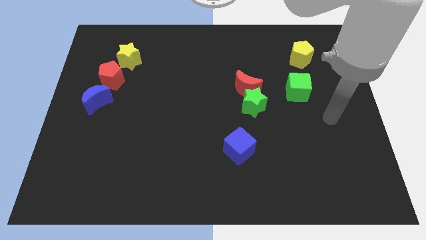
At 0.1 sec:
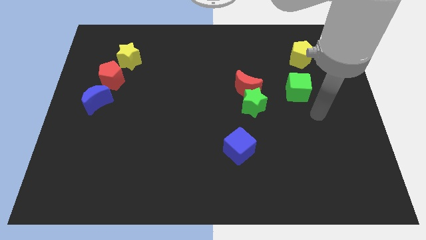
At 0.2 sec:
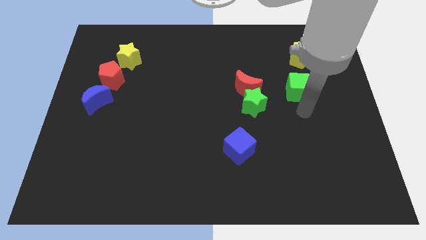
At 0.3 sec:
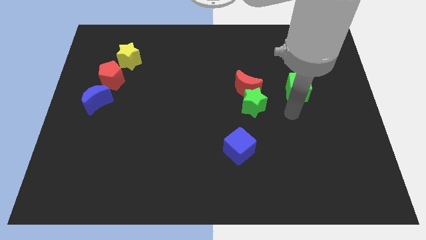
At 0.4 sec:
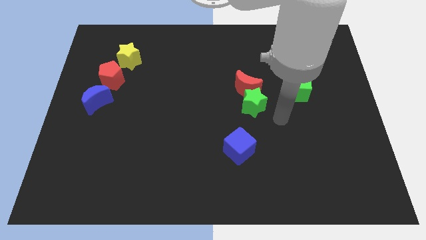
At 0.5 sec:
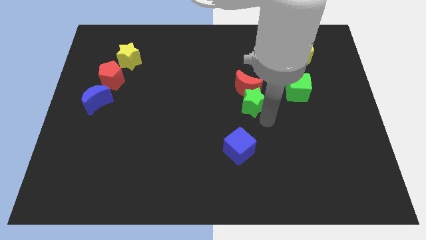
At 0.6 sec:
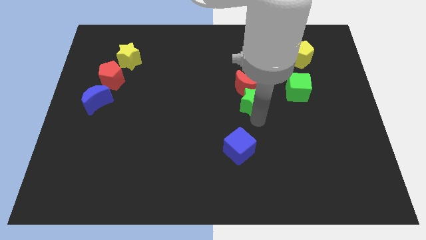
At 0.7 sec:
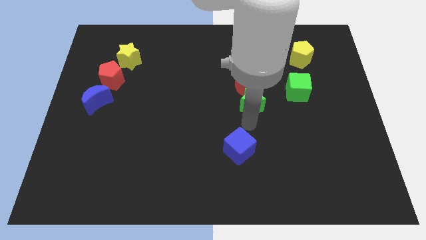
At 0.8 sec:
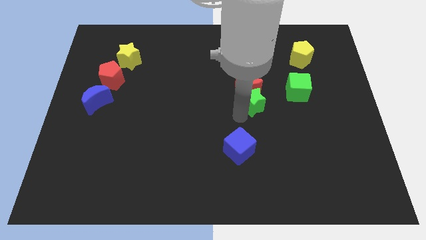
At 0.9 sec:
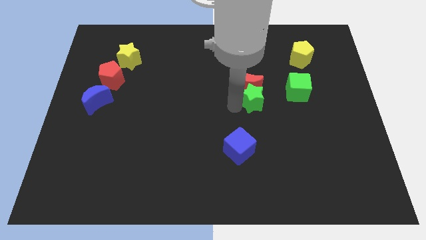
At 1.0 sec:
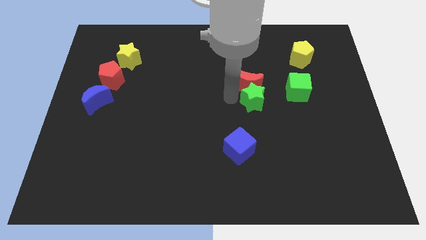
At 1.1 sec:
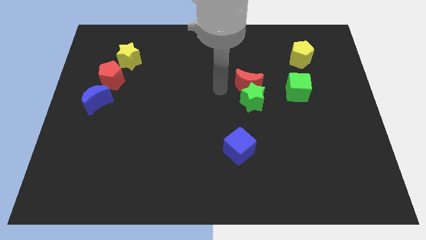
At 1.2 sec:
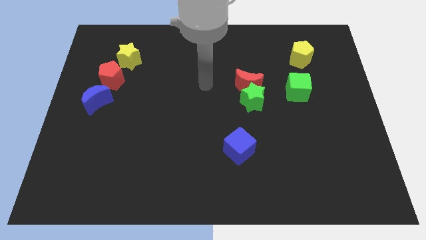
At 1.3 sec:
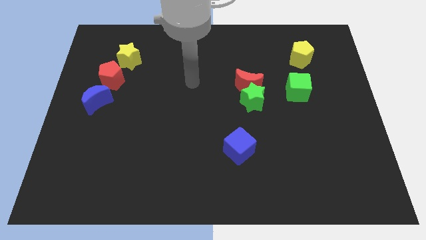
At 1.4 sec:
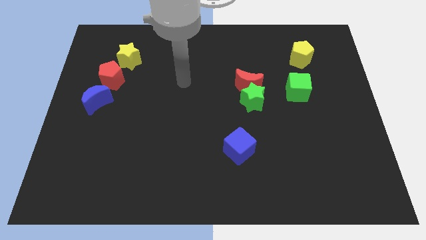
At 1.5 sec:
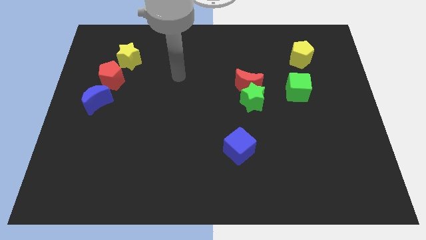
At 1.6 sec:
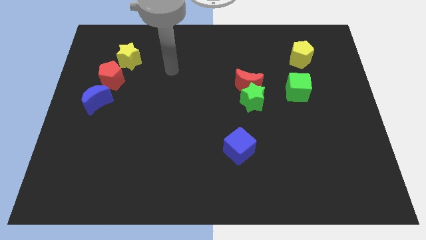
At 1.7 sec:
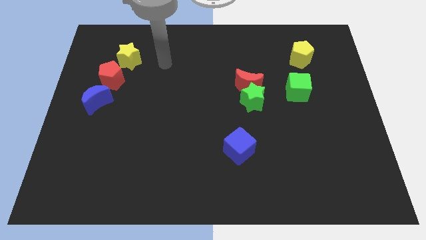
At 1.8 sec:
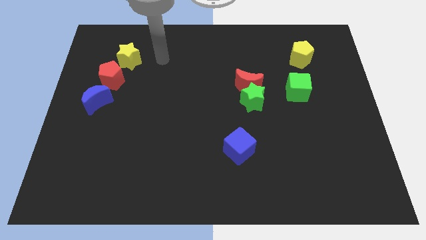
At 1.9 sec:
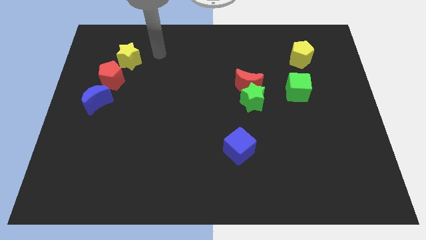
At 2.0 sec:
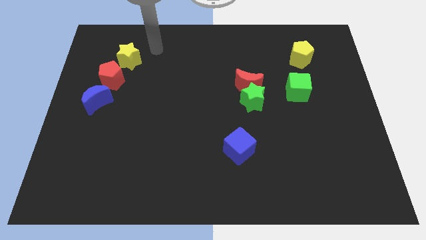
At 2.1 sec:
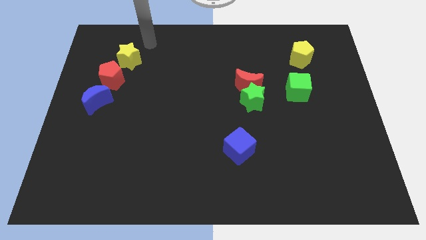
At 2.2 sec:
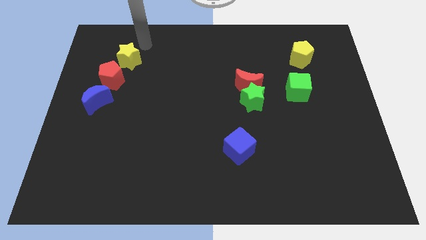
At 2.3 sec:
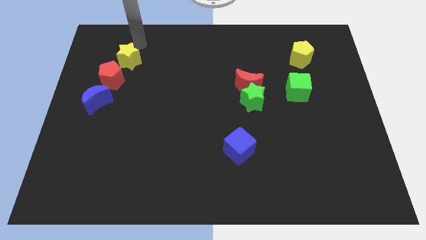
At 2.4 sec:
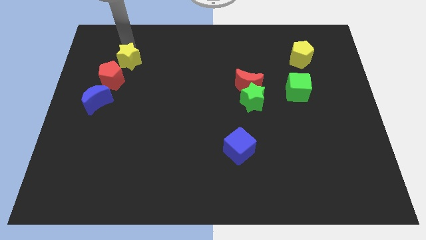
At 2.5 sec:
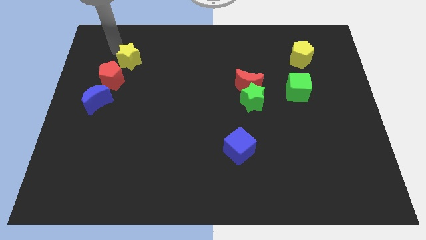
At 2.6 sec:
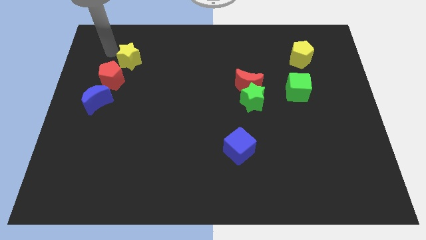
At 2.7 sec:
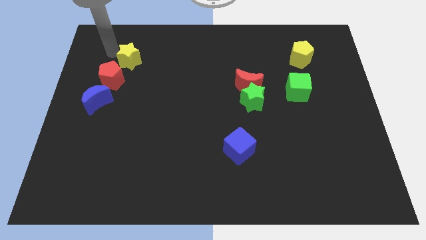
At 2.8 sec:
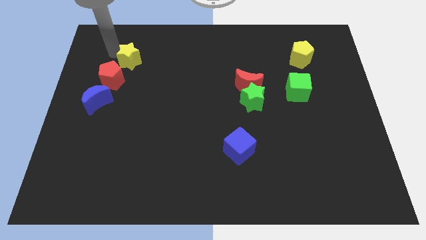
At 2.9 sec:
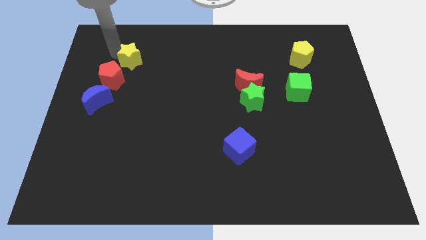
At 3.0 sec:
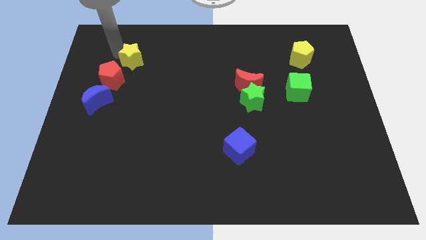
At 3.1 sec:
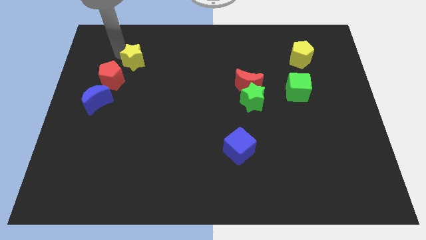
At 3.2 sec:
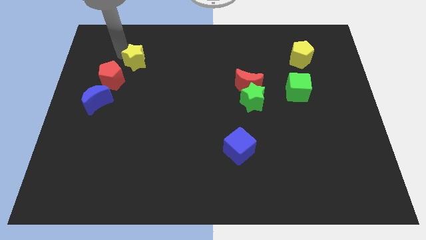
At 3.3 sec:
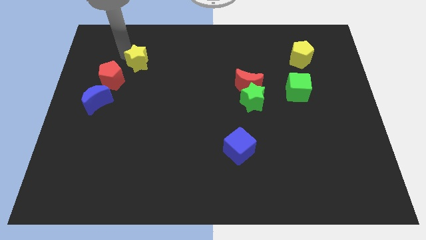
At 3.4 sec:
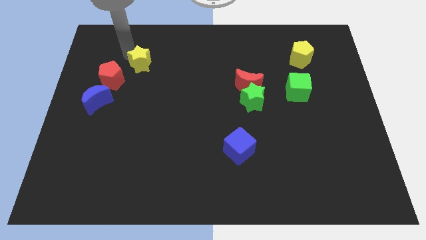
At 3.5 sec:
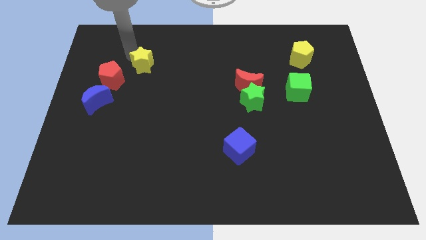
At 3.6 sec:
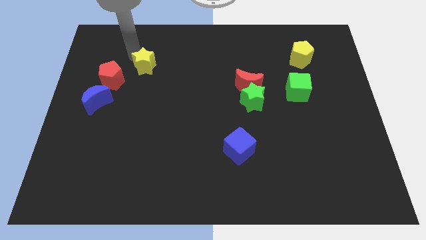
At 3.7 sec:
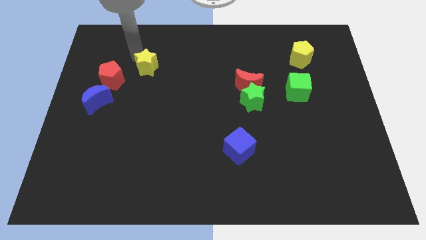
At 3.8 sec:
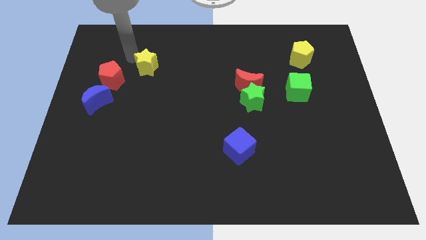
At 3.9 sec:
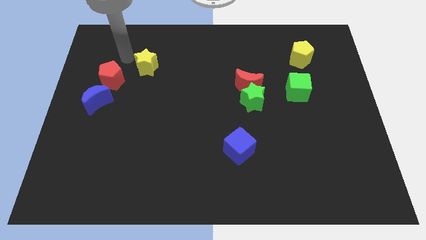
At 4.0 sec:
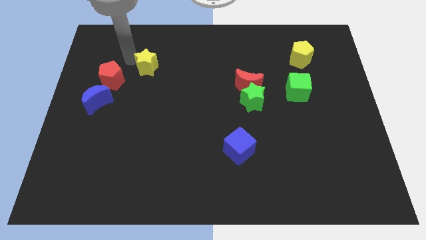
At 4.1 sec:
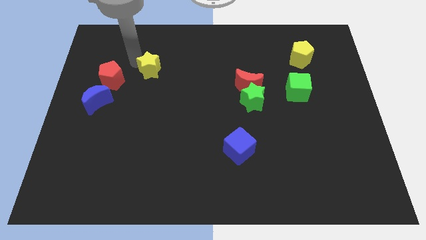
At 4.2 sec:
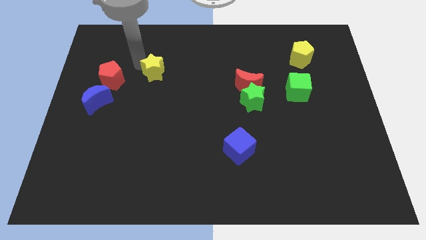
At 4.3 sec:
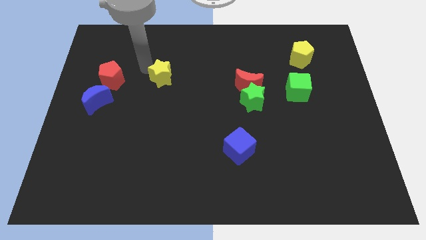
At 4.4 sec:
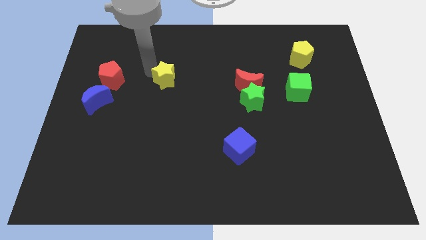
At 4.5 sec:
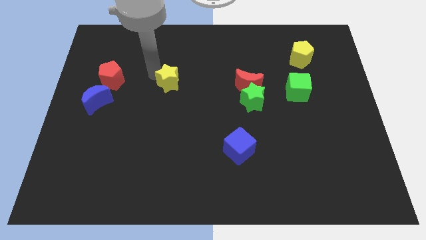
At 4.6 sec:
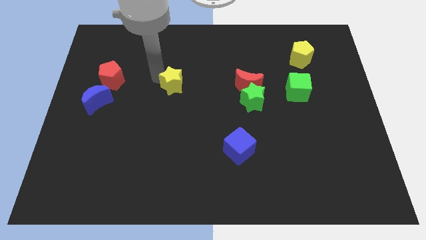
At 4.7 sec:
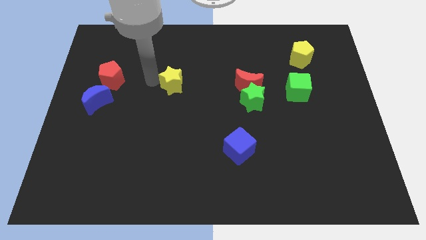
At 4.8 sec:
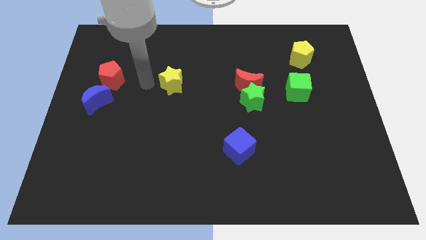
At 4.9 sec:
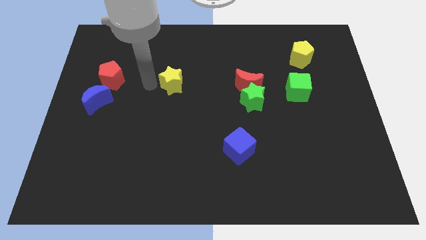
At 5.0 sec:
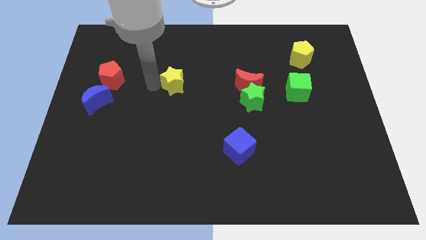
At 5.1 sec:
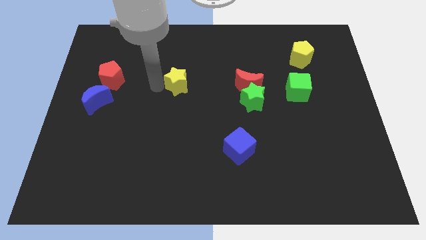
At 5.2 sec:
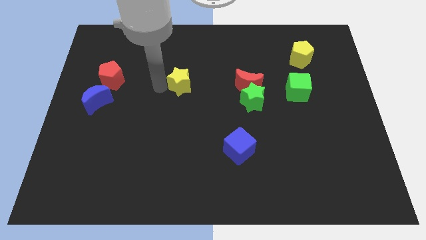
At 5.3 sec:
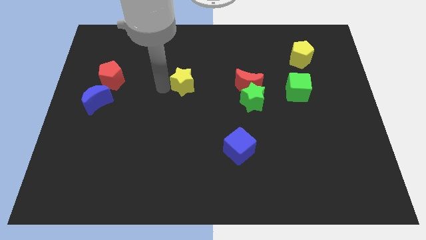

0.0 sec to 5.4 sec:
slide the yellow star just left of the red moon

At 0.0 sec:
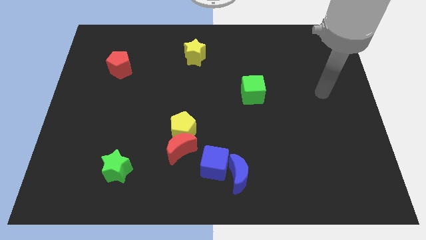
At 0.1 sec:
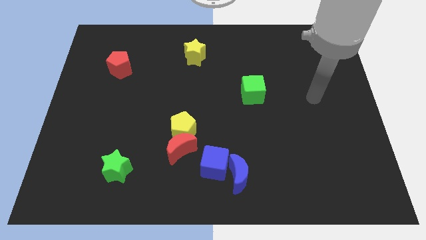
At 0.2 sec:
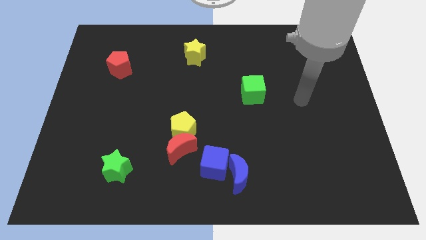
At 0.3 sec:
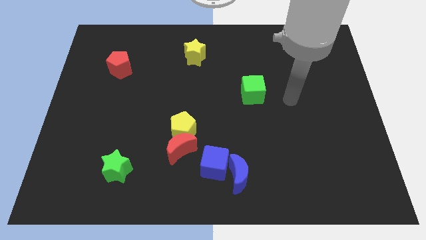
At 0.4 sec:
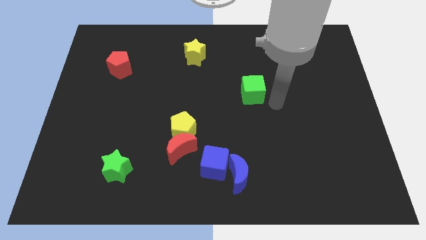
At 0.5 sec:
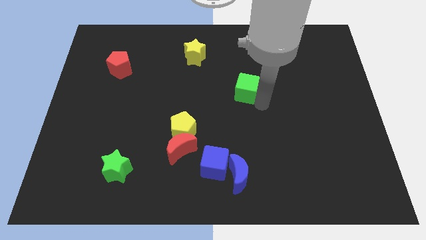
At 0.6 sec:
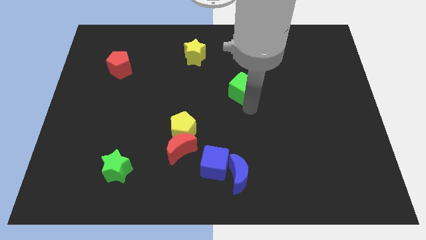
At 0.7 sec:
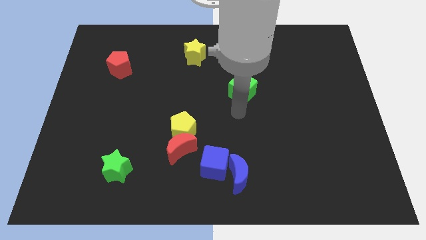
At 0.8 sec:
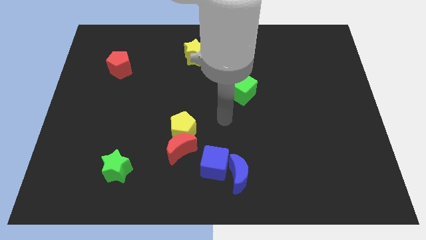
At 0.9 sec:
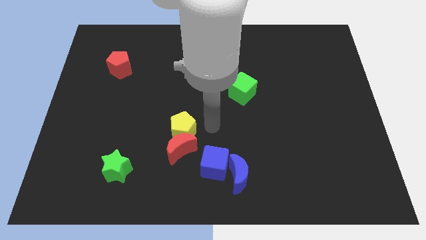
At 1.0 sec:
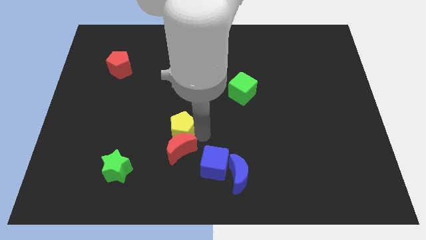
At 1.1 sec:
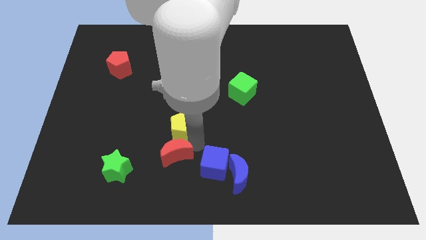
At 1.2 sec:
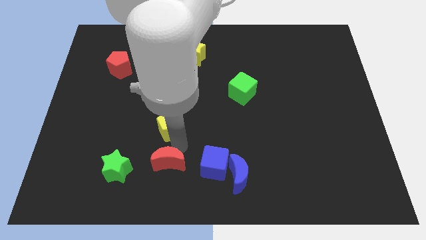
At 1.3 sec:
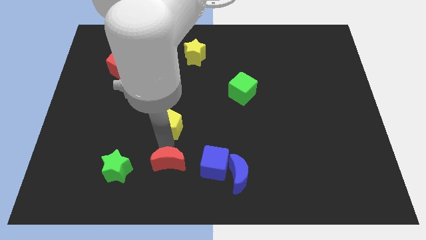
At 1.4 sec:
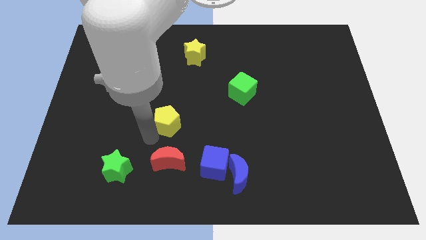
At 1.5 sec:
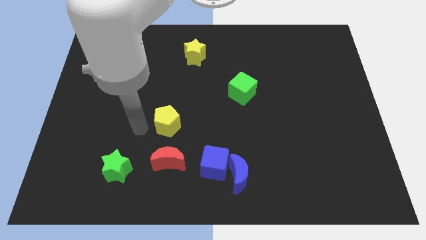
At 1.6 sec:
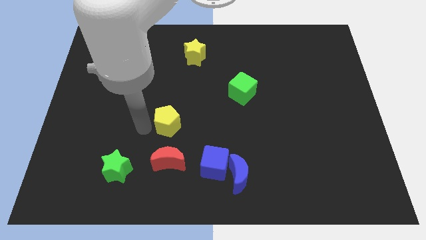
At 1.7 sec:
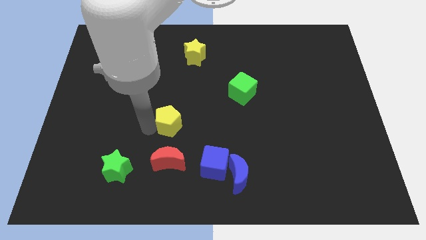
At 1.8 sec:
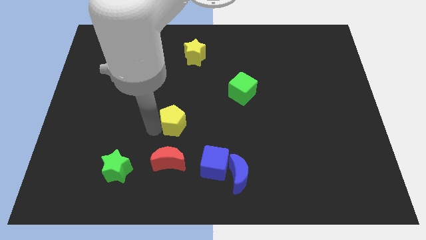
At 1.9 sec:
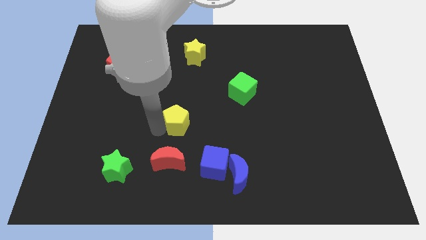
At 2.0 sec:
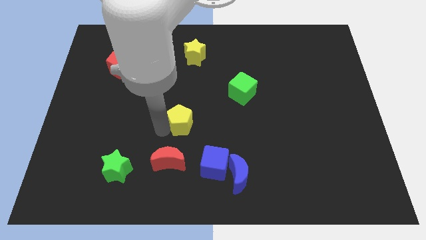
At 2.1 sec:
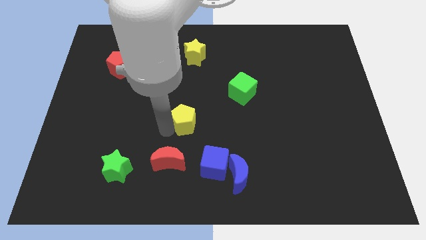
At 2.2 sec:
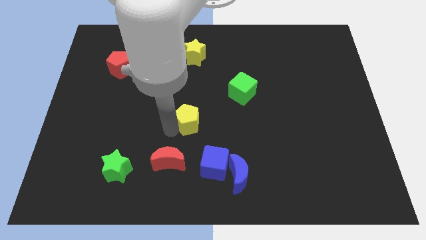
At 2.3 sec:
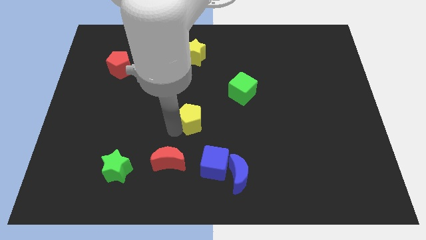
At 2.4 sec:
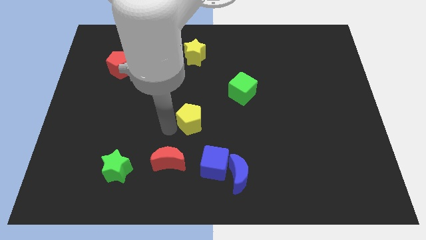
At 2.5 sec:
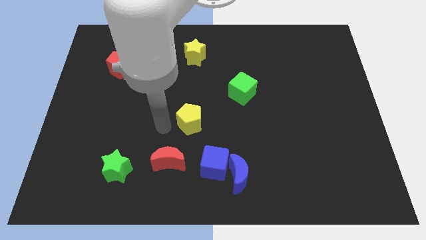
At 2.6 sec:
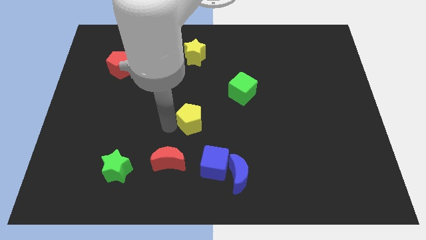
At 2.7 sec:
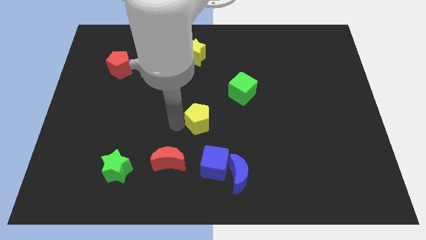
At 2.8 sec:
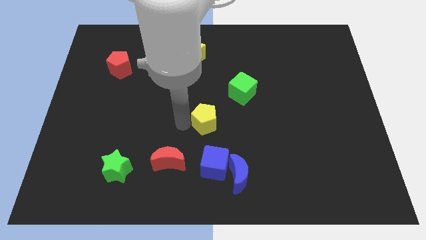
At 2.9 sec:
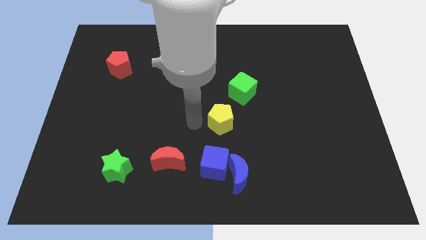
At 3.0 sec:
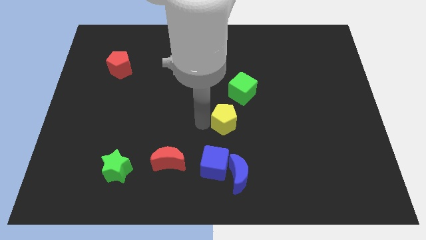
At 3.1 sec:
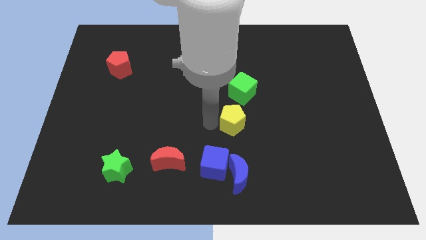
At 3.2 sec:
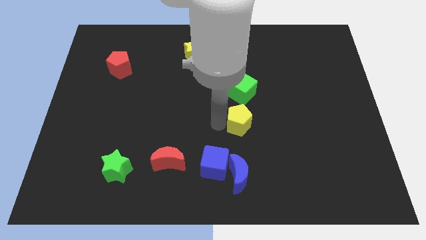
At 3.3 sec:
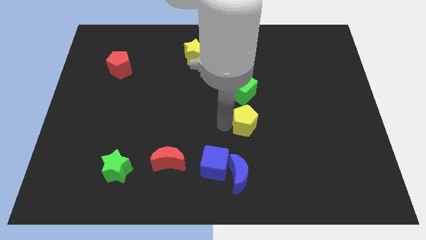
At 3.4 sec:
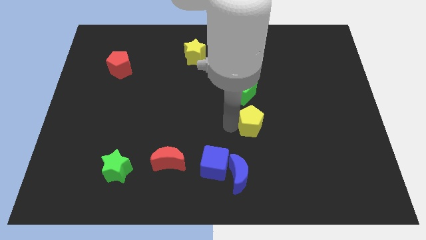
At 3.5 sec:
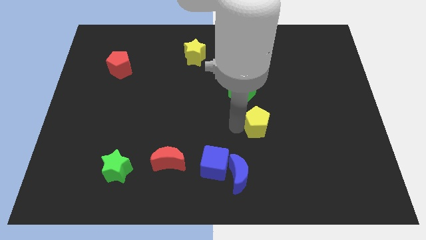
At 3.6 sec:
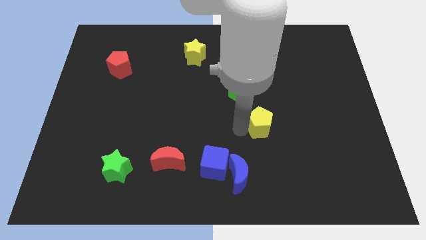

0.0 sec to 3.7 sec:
move the yellow pentagon to the bottom right side of the green cube
